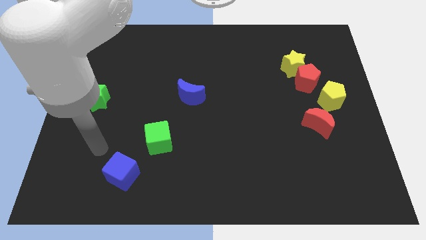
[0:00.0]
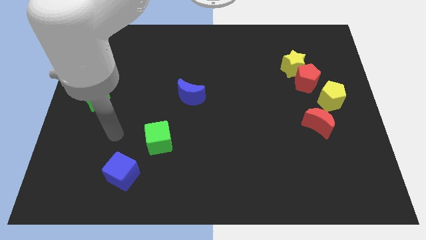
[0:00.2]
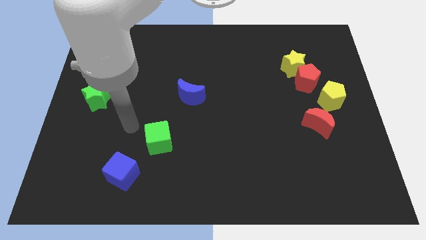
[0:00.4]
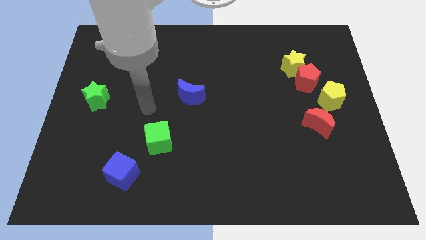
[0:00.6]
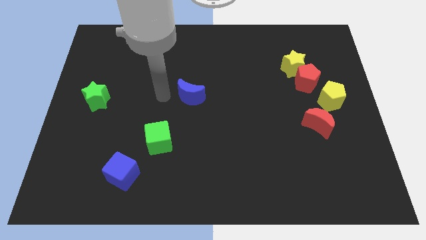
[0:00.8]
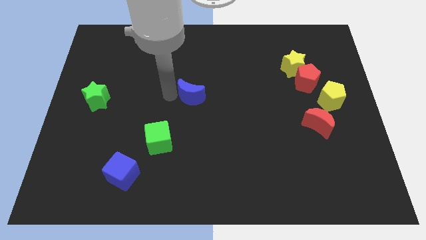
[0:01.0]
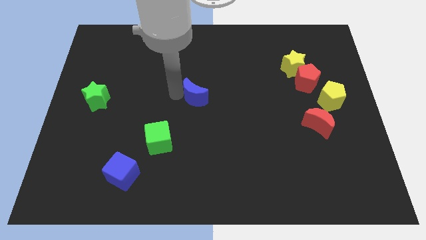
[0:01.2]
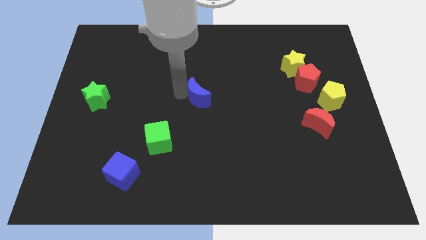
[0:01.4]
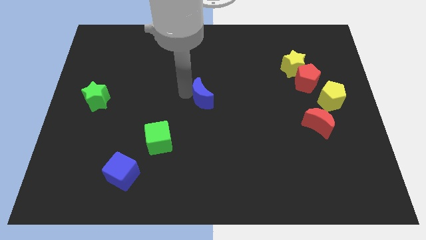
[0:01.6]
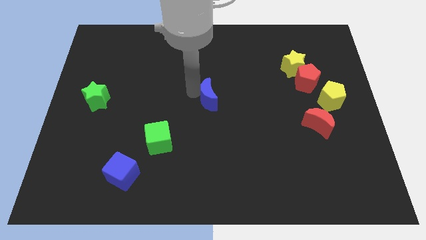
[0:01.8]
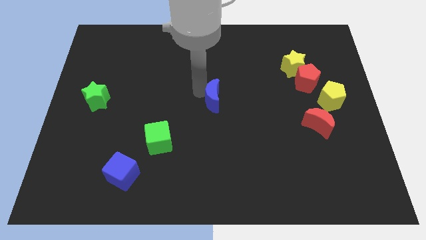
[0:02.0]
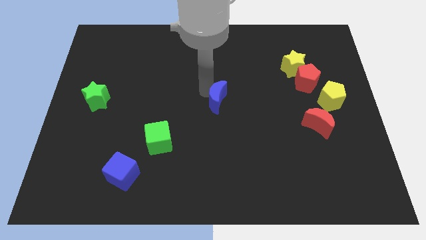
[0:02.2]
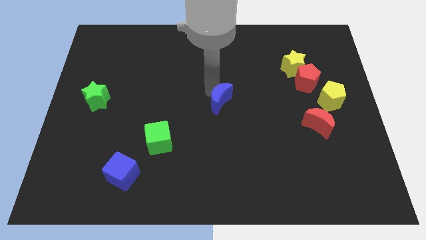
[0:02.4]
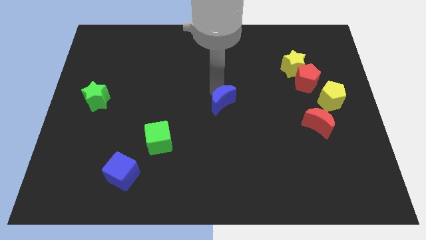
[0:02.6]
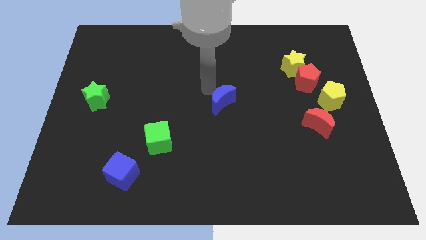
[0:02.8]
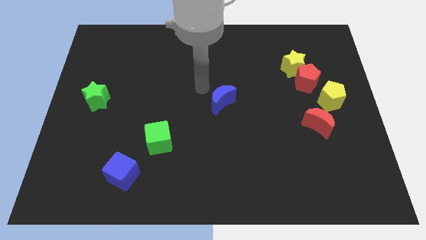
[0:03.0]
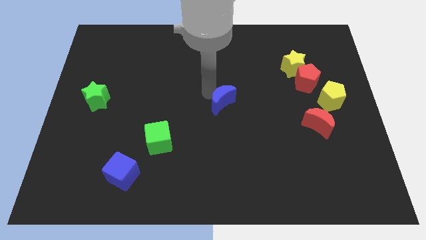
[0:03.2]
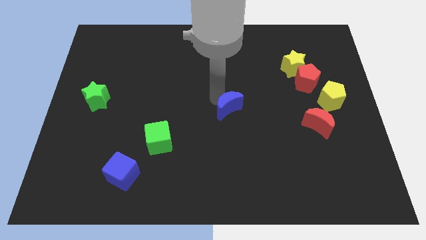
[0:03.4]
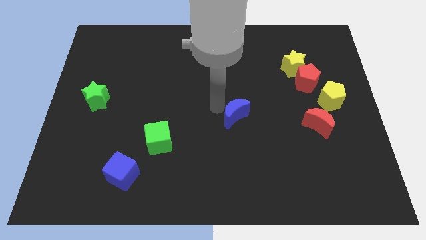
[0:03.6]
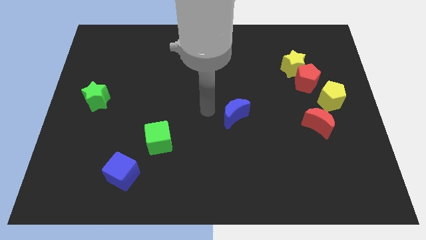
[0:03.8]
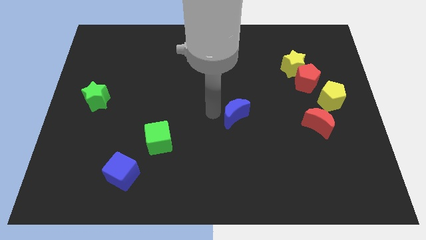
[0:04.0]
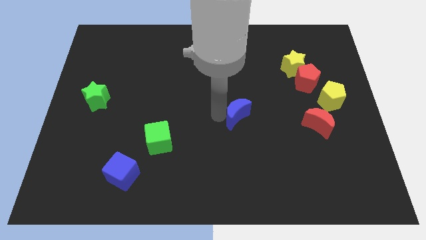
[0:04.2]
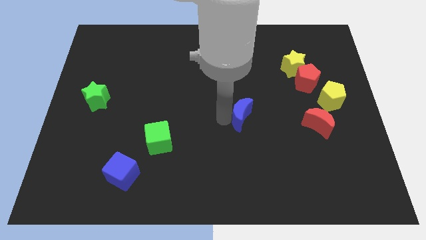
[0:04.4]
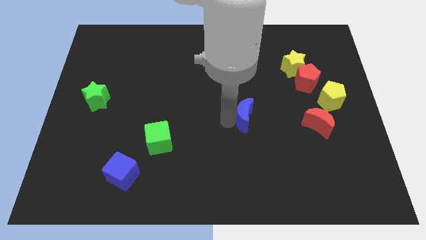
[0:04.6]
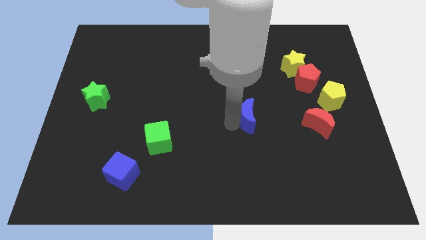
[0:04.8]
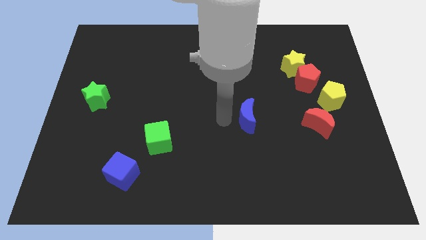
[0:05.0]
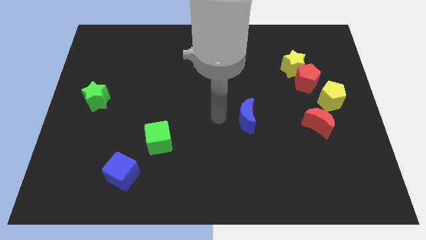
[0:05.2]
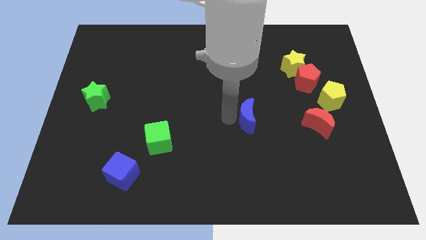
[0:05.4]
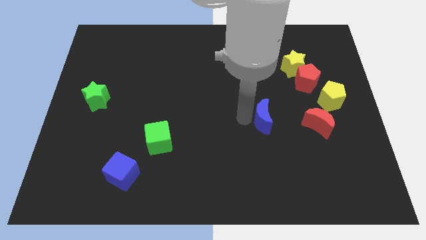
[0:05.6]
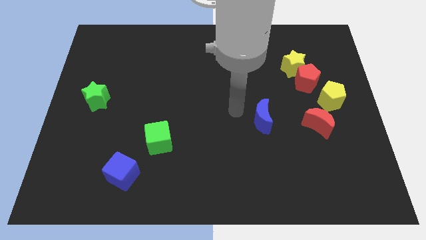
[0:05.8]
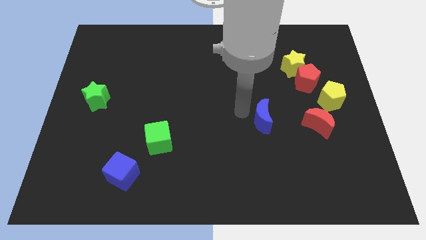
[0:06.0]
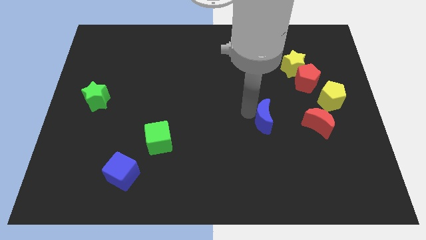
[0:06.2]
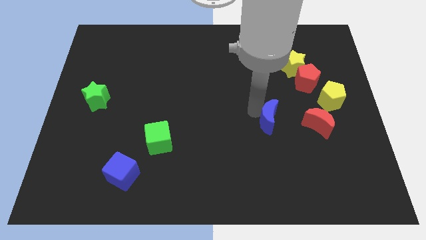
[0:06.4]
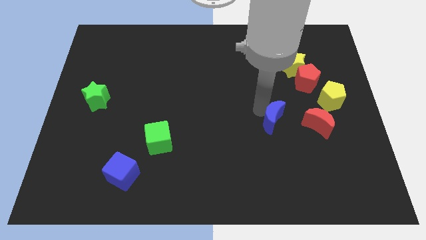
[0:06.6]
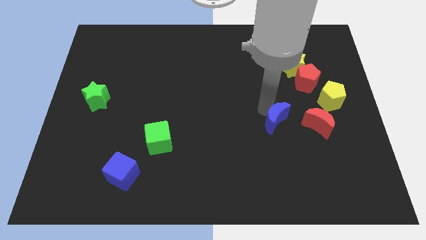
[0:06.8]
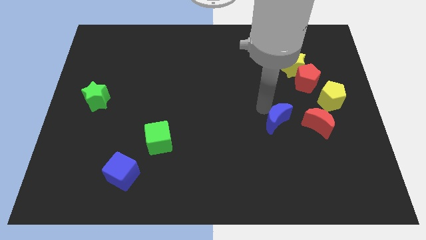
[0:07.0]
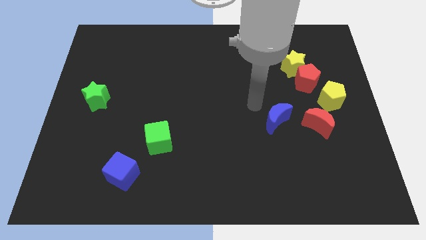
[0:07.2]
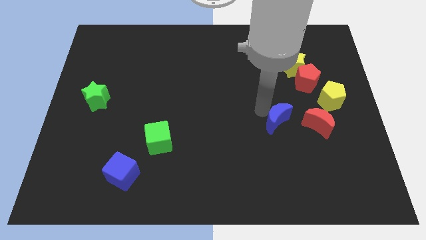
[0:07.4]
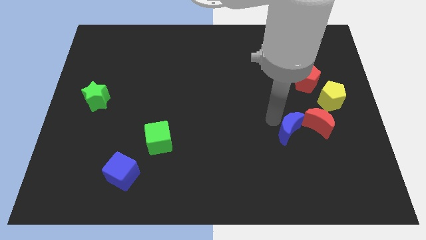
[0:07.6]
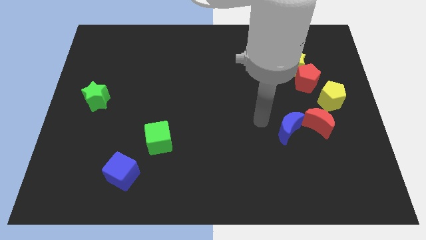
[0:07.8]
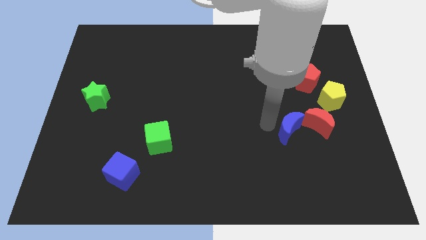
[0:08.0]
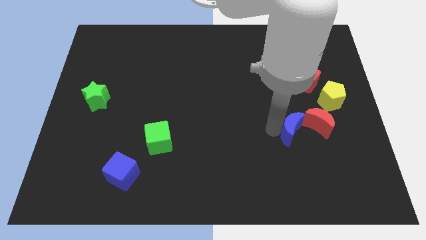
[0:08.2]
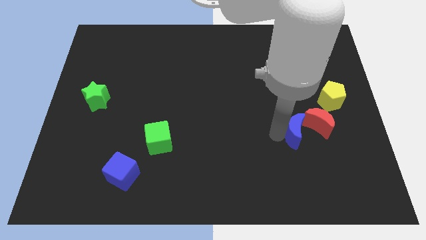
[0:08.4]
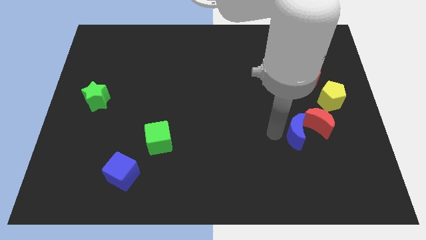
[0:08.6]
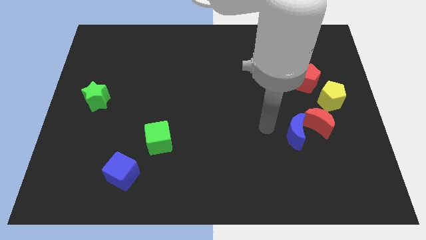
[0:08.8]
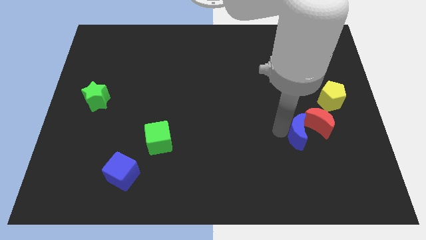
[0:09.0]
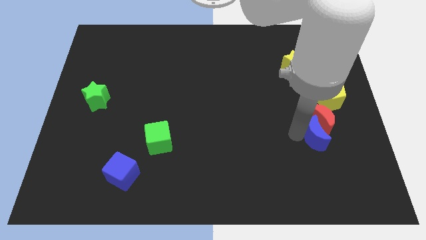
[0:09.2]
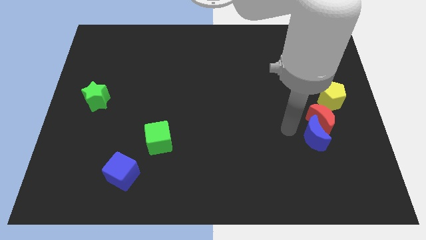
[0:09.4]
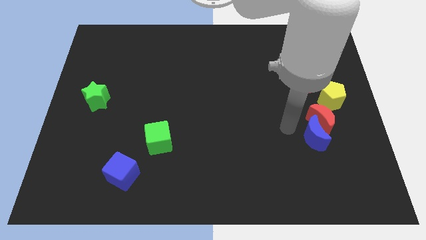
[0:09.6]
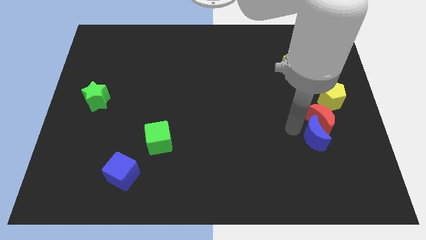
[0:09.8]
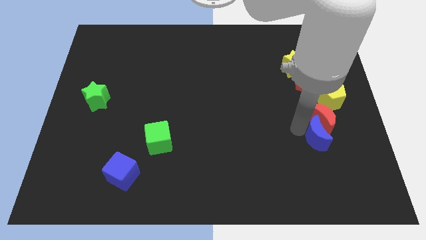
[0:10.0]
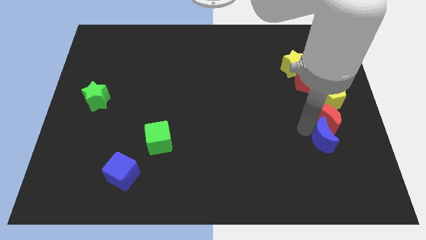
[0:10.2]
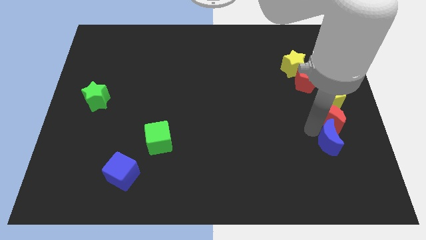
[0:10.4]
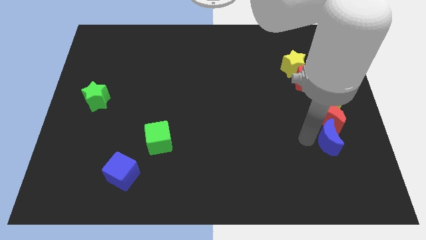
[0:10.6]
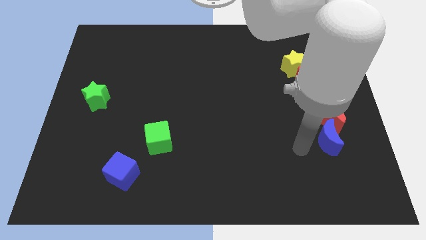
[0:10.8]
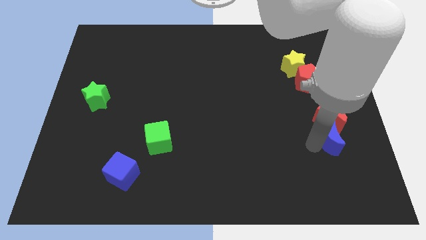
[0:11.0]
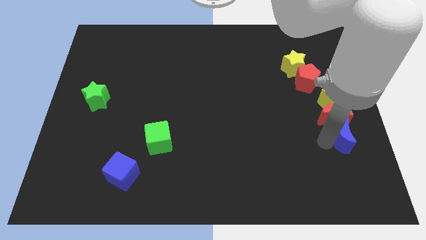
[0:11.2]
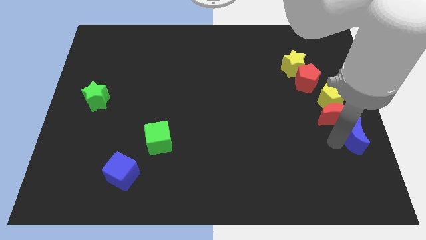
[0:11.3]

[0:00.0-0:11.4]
move the blue moon to the center right
